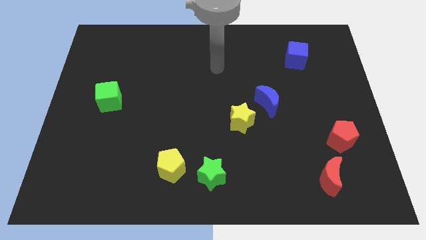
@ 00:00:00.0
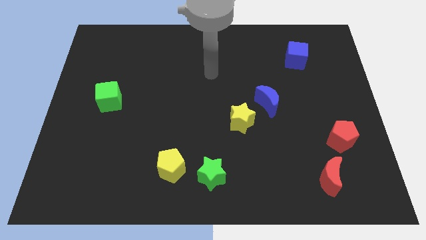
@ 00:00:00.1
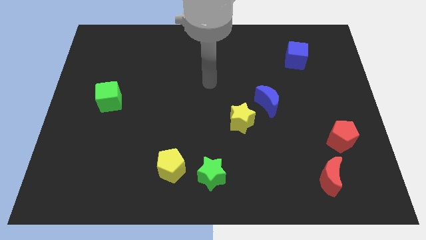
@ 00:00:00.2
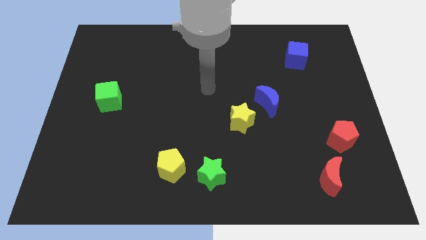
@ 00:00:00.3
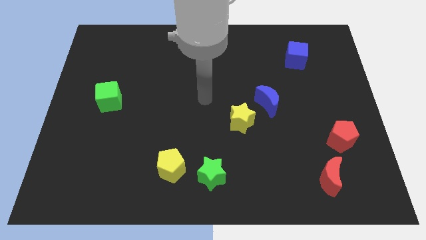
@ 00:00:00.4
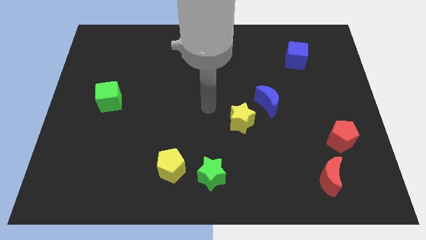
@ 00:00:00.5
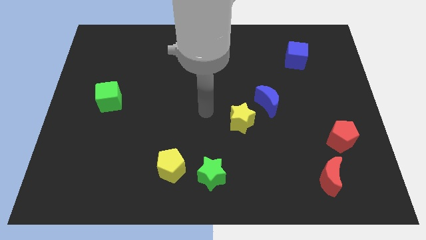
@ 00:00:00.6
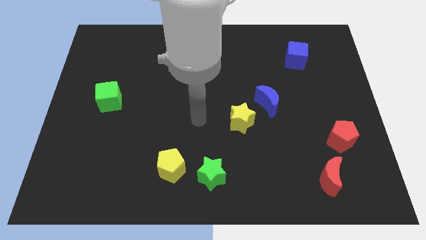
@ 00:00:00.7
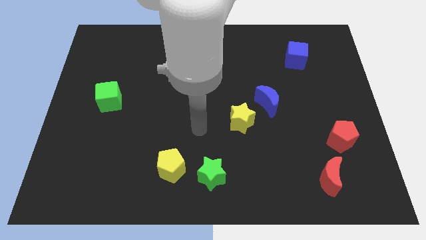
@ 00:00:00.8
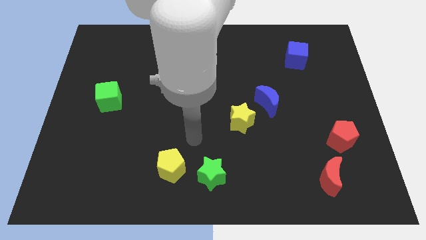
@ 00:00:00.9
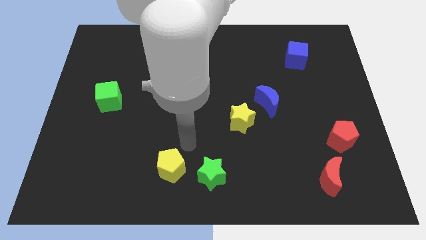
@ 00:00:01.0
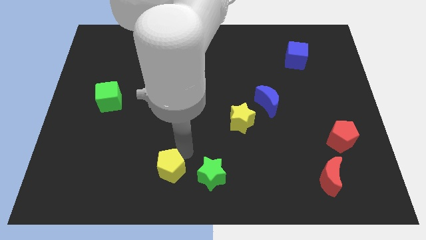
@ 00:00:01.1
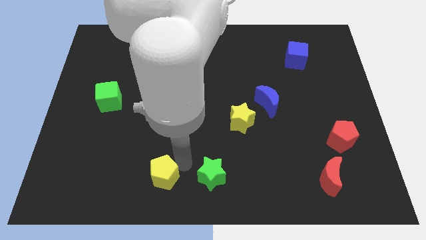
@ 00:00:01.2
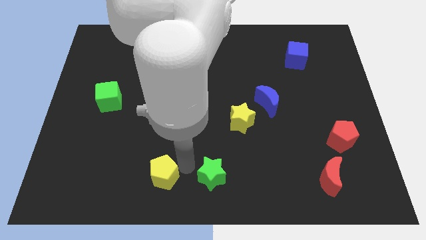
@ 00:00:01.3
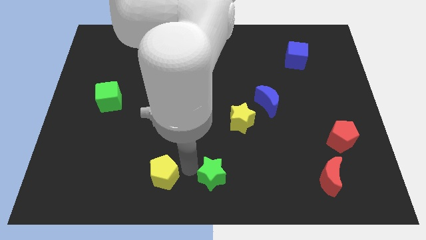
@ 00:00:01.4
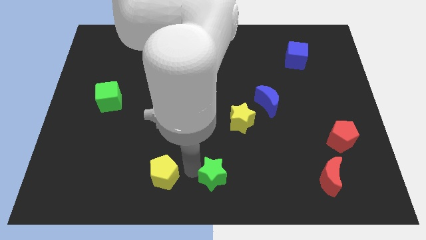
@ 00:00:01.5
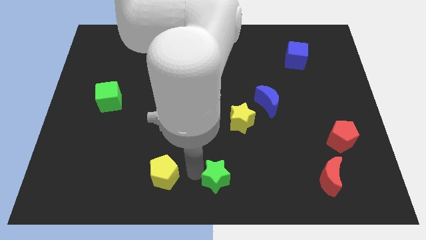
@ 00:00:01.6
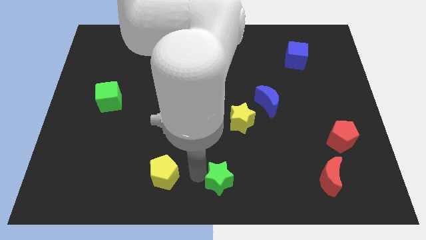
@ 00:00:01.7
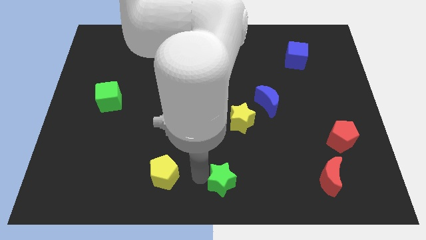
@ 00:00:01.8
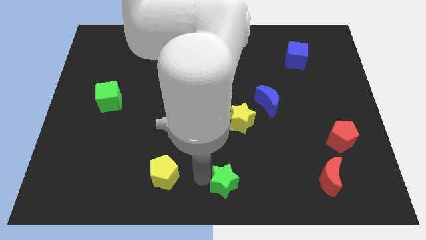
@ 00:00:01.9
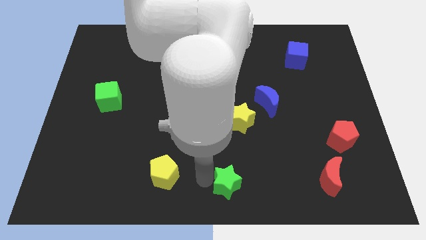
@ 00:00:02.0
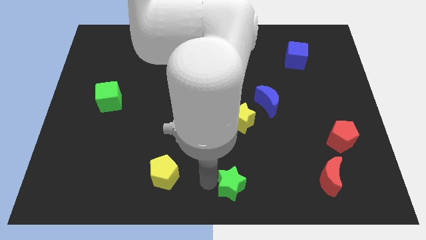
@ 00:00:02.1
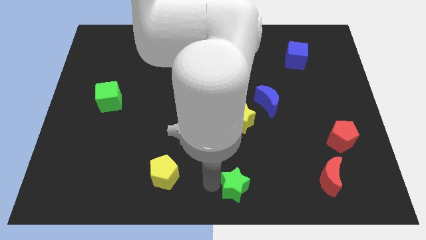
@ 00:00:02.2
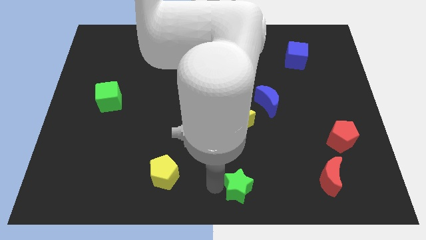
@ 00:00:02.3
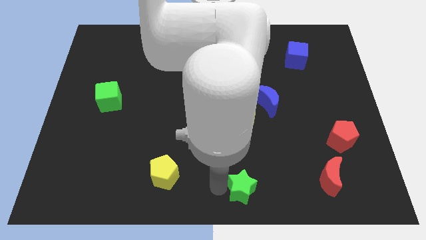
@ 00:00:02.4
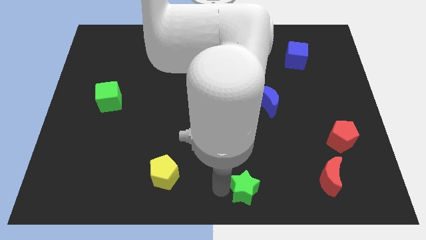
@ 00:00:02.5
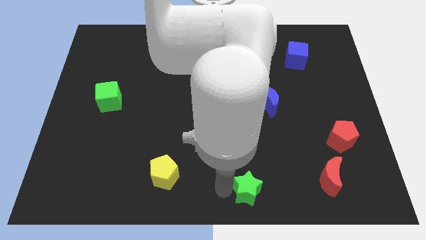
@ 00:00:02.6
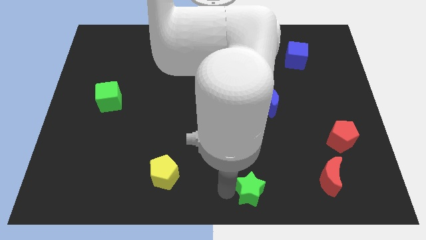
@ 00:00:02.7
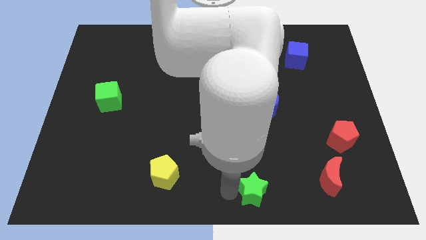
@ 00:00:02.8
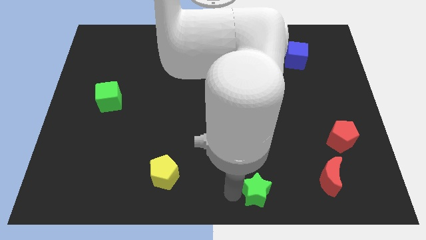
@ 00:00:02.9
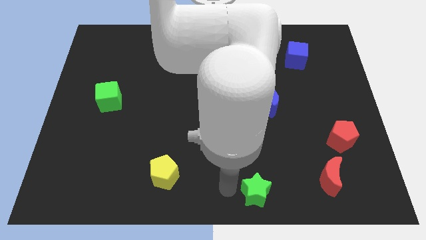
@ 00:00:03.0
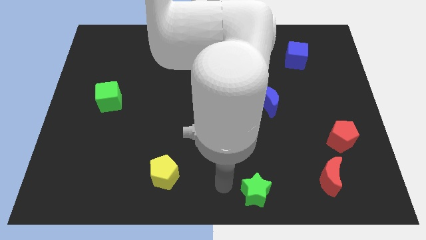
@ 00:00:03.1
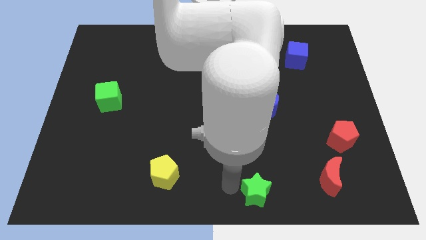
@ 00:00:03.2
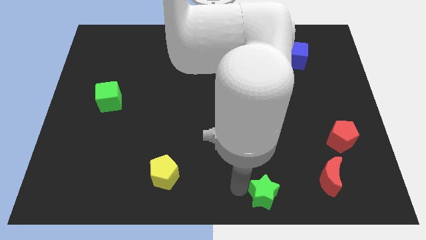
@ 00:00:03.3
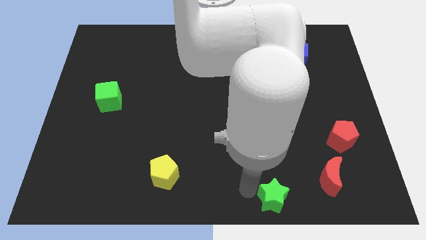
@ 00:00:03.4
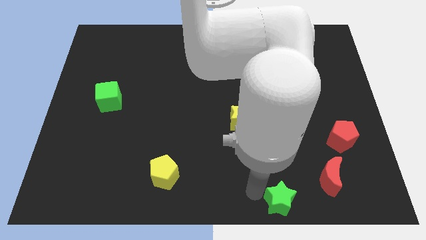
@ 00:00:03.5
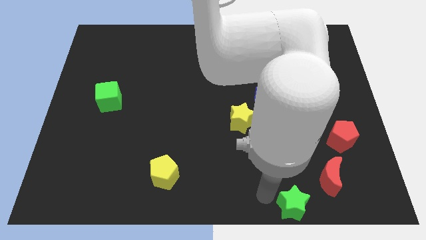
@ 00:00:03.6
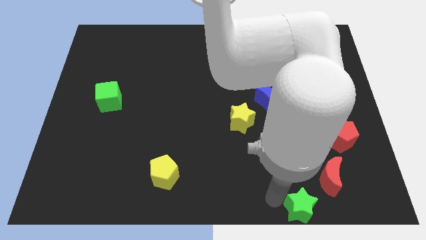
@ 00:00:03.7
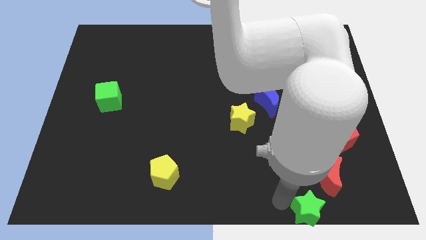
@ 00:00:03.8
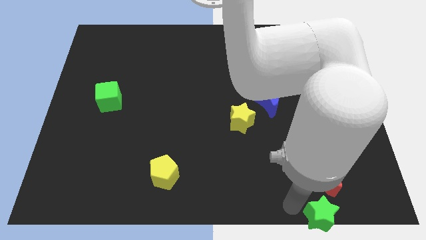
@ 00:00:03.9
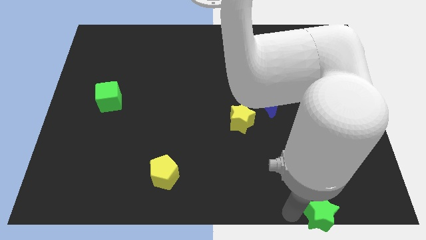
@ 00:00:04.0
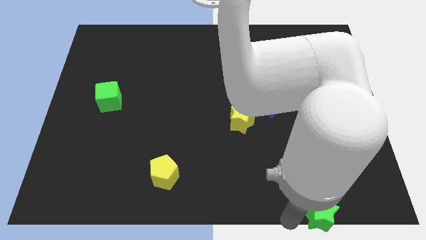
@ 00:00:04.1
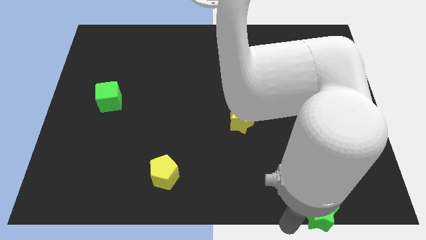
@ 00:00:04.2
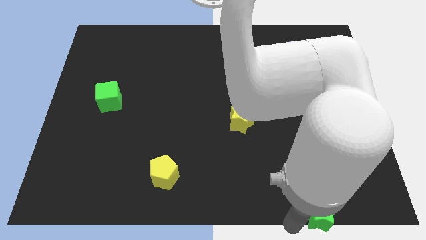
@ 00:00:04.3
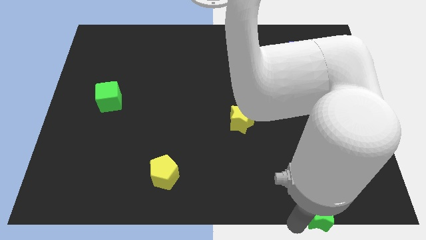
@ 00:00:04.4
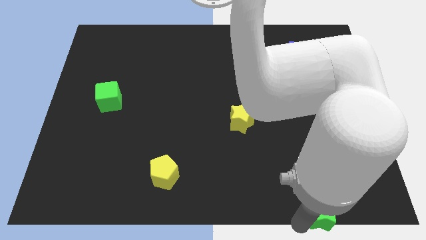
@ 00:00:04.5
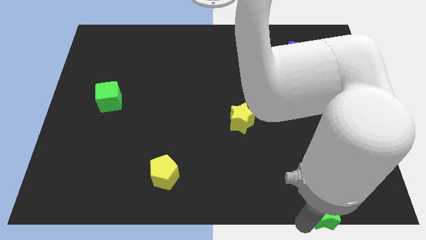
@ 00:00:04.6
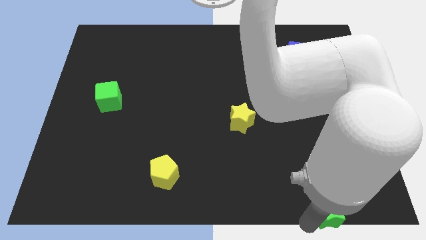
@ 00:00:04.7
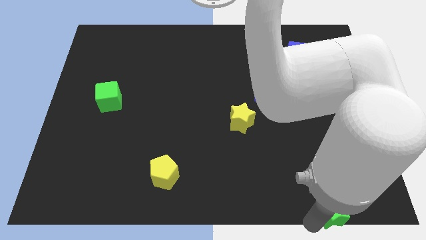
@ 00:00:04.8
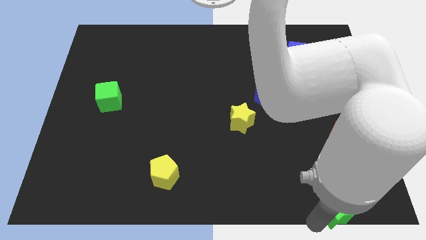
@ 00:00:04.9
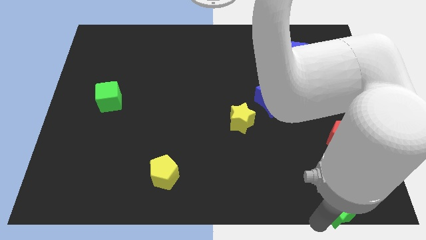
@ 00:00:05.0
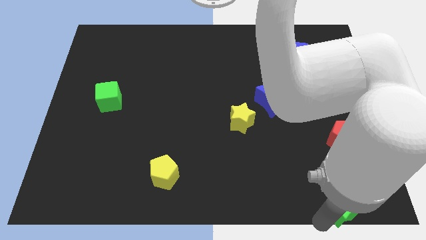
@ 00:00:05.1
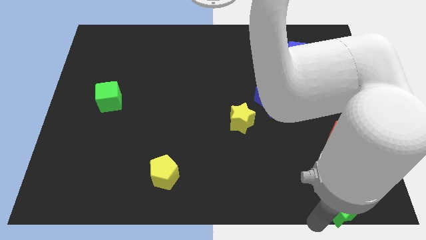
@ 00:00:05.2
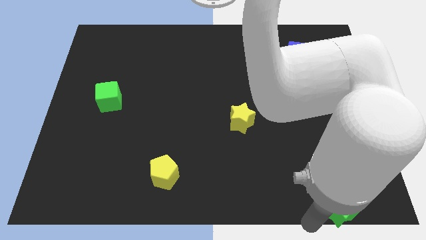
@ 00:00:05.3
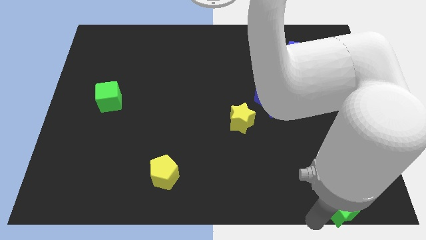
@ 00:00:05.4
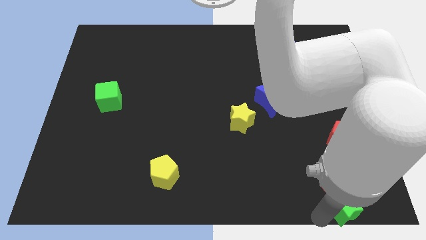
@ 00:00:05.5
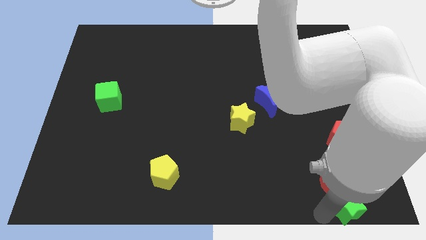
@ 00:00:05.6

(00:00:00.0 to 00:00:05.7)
push the green star to the bottom right of the board
